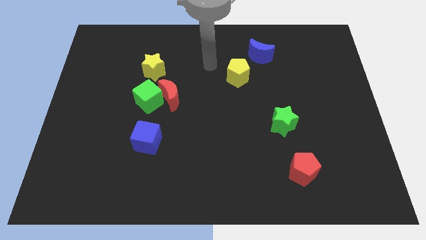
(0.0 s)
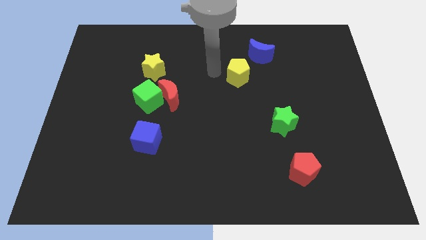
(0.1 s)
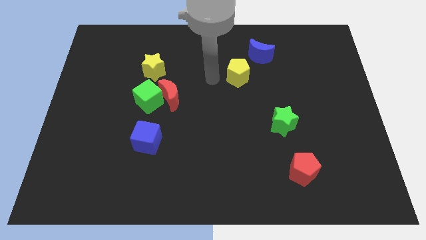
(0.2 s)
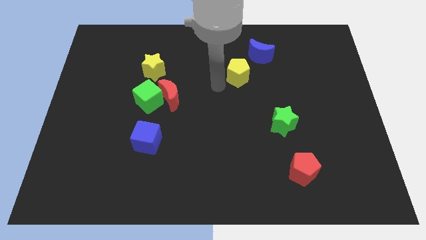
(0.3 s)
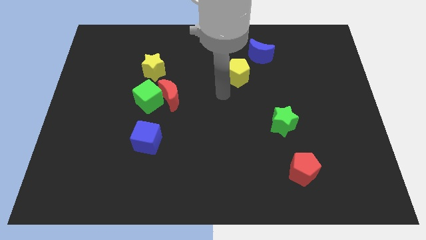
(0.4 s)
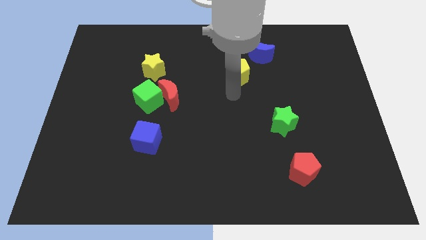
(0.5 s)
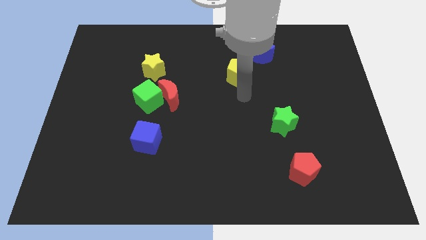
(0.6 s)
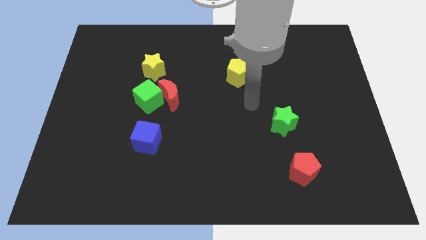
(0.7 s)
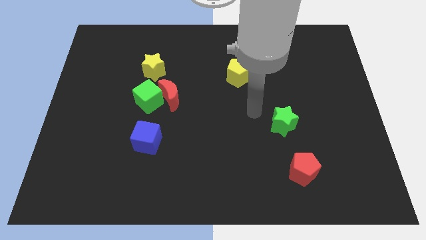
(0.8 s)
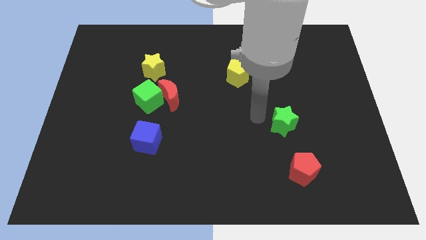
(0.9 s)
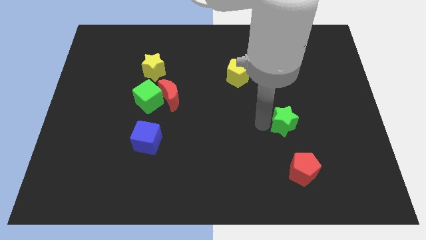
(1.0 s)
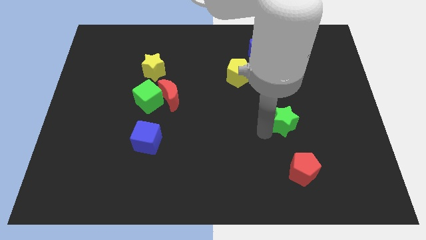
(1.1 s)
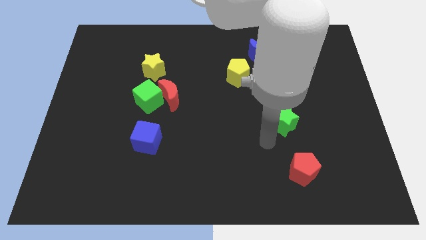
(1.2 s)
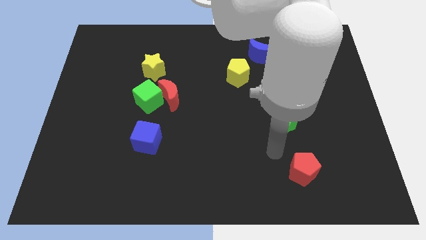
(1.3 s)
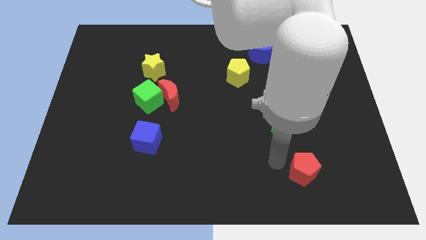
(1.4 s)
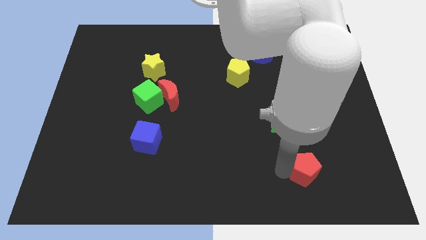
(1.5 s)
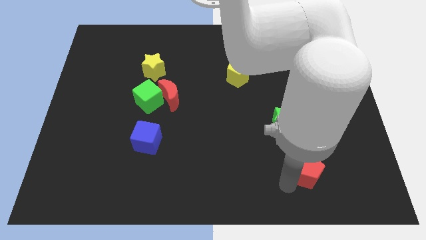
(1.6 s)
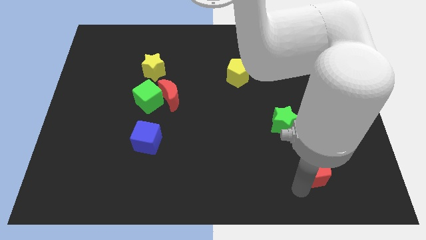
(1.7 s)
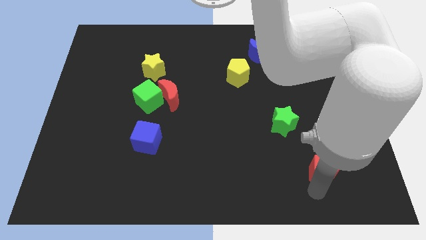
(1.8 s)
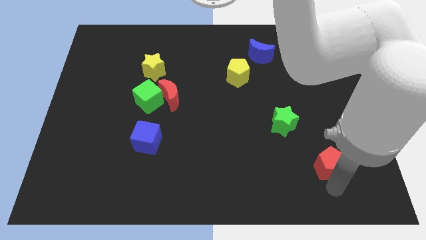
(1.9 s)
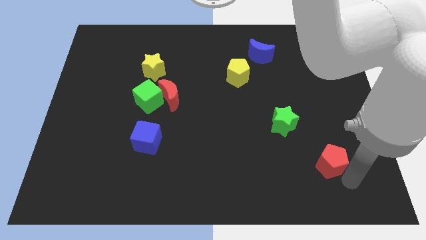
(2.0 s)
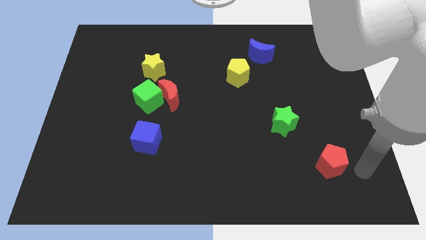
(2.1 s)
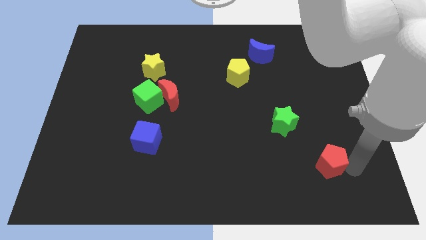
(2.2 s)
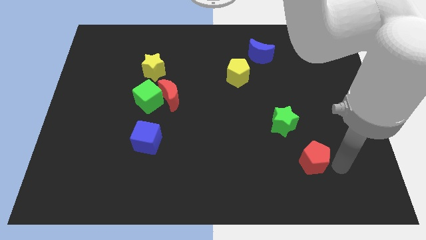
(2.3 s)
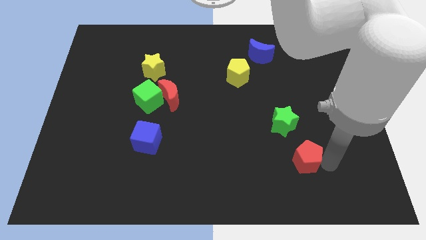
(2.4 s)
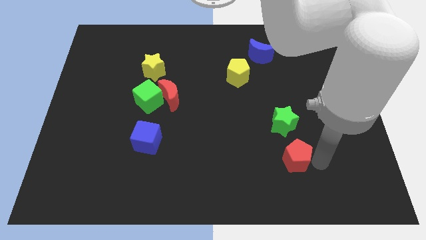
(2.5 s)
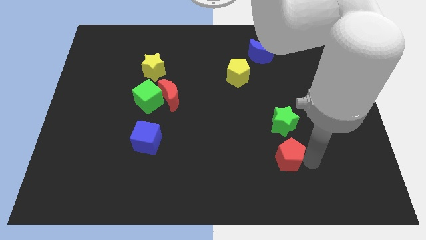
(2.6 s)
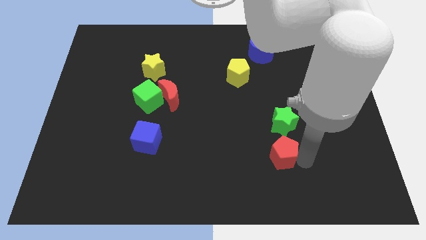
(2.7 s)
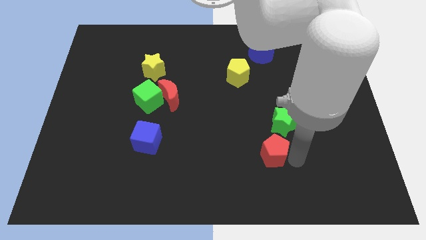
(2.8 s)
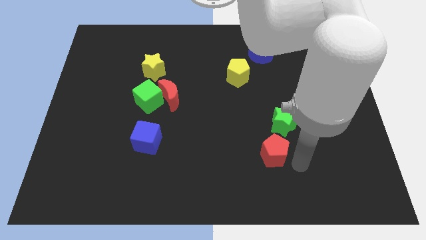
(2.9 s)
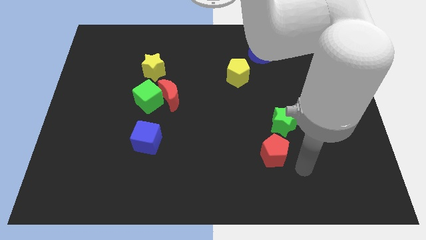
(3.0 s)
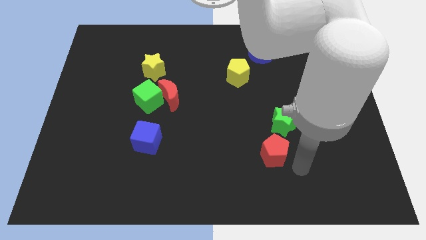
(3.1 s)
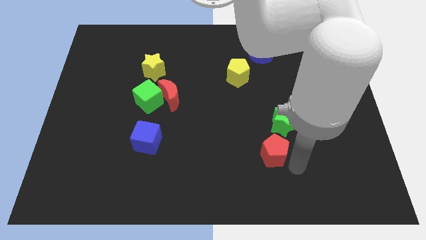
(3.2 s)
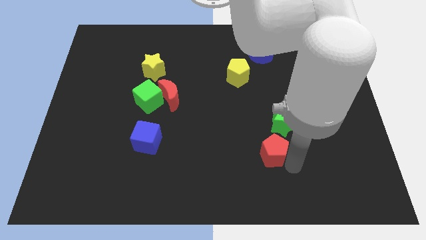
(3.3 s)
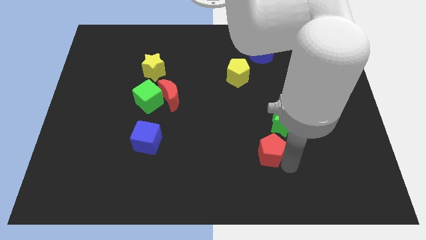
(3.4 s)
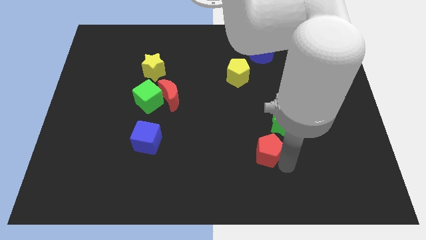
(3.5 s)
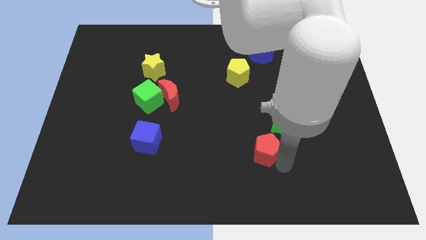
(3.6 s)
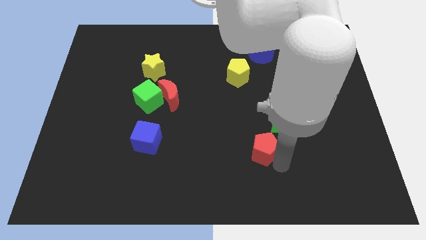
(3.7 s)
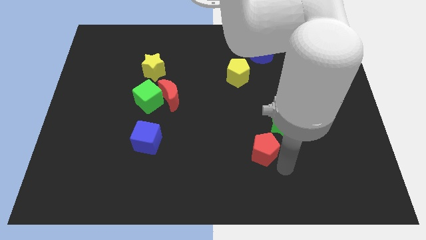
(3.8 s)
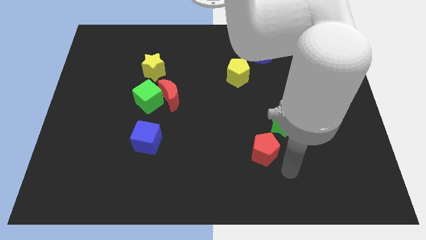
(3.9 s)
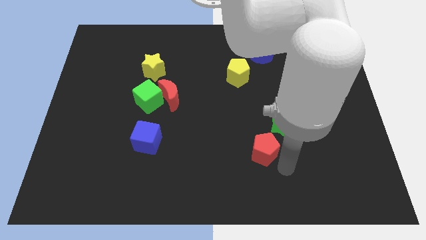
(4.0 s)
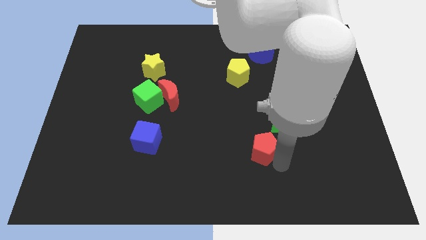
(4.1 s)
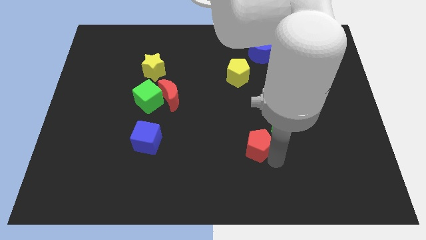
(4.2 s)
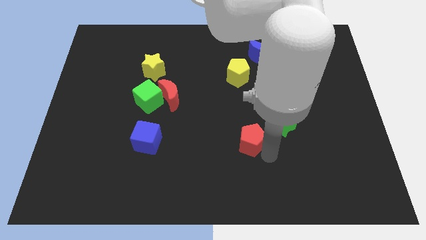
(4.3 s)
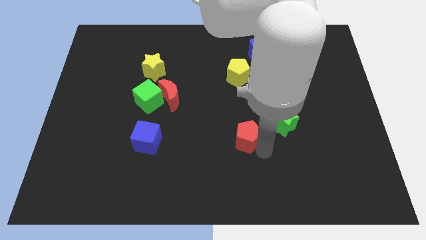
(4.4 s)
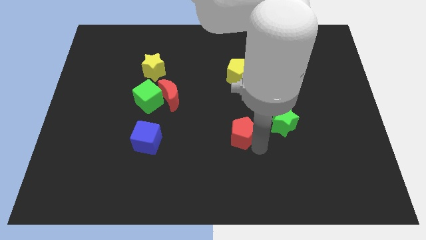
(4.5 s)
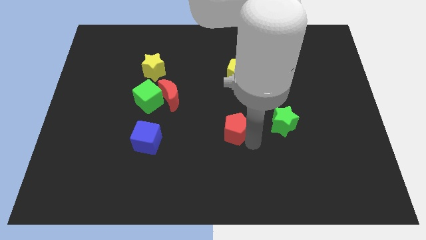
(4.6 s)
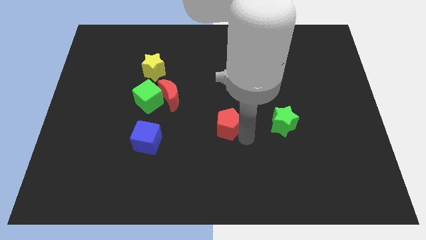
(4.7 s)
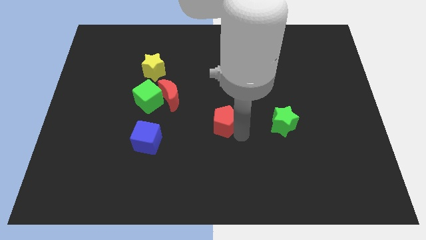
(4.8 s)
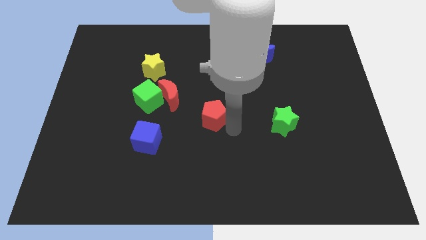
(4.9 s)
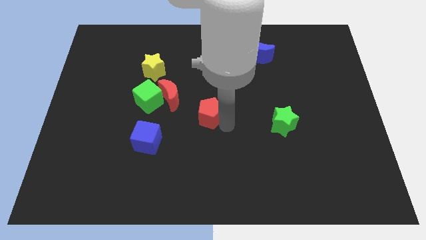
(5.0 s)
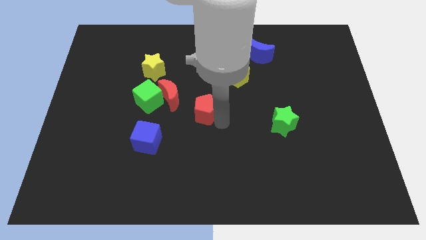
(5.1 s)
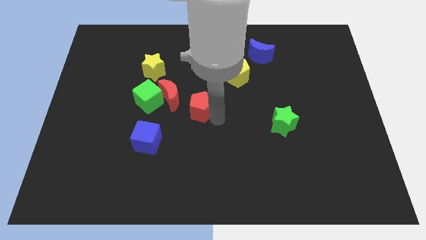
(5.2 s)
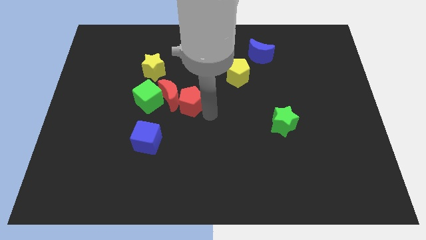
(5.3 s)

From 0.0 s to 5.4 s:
slide the red pentagon next to the red moon
